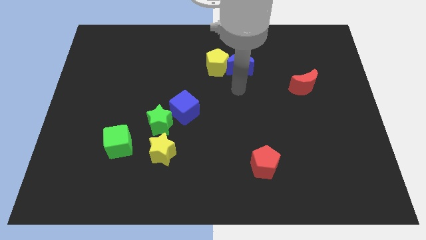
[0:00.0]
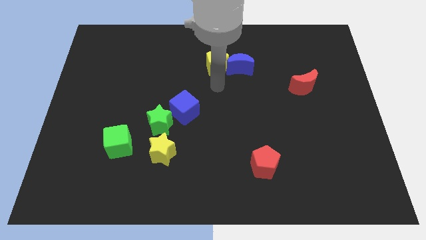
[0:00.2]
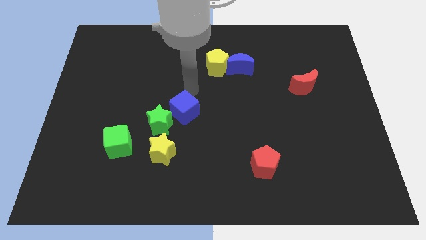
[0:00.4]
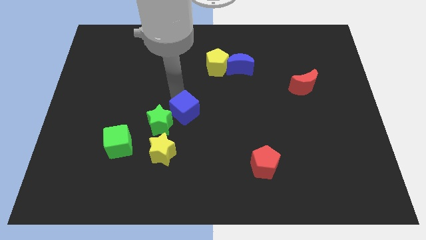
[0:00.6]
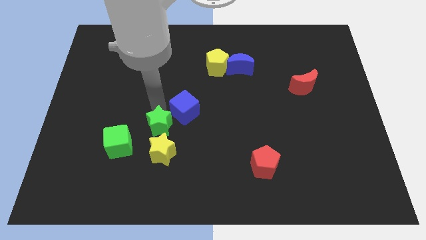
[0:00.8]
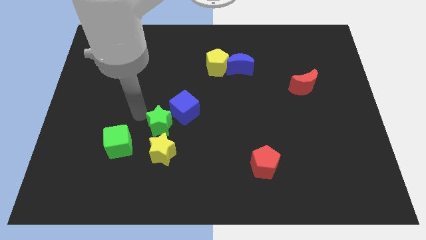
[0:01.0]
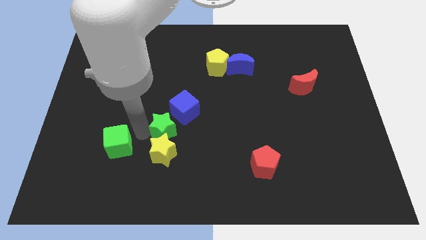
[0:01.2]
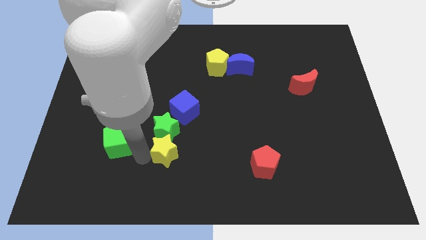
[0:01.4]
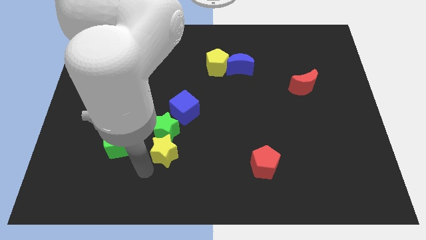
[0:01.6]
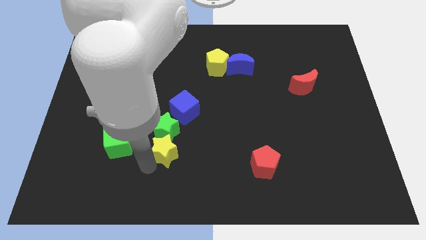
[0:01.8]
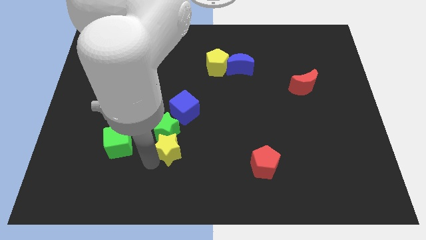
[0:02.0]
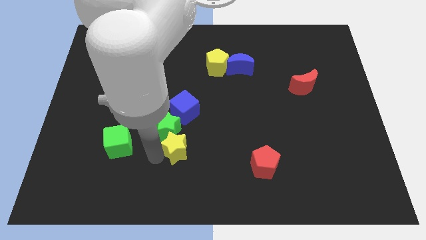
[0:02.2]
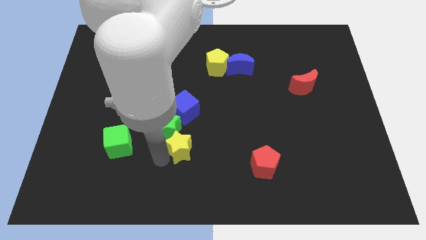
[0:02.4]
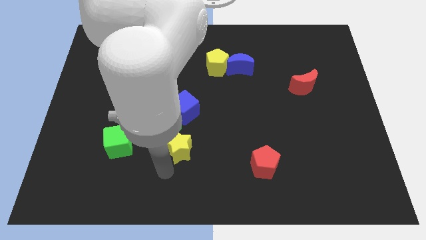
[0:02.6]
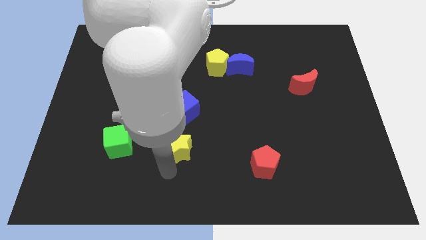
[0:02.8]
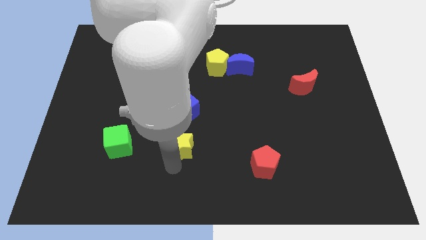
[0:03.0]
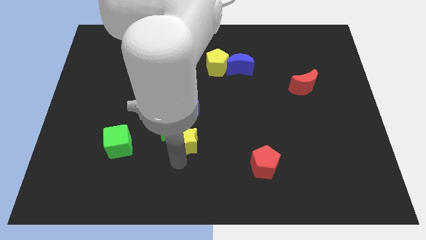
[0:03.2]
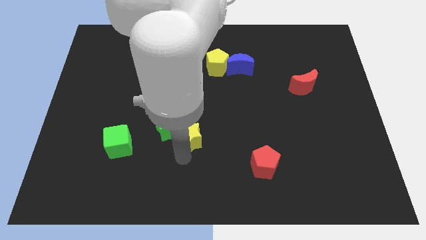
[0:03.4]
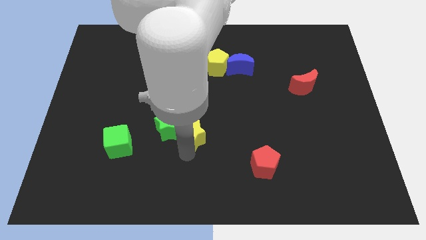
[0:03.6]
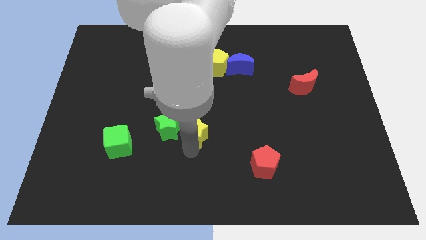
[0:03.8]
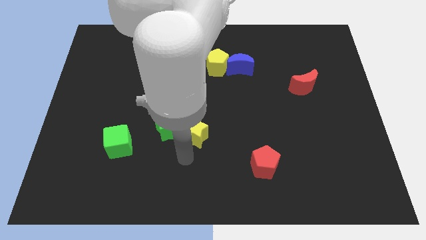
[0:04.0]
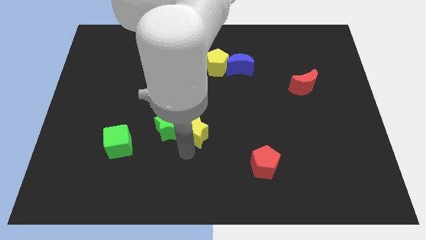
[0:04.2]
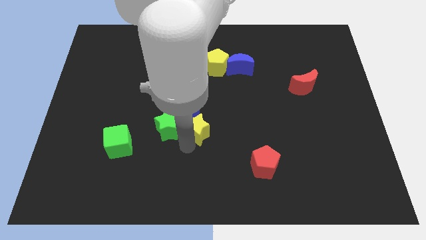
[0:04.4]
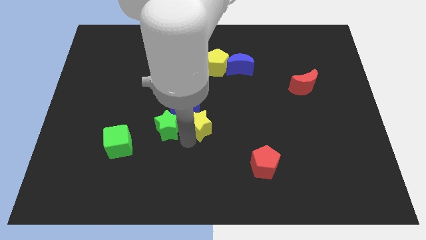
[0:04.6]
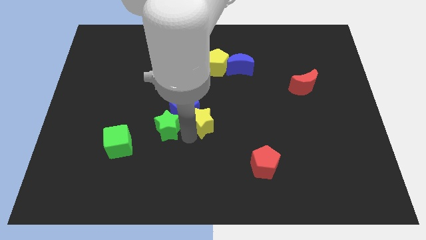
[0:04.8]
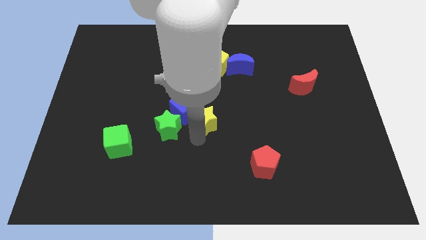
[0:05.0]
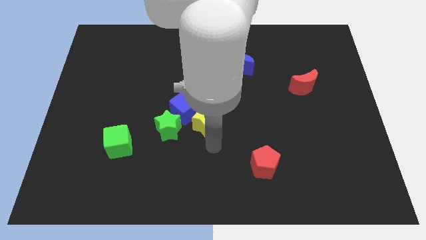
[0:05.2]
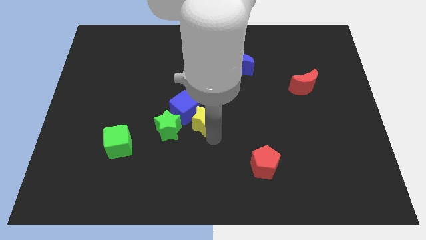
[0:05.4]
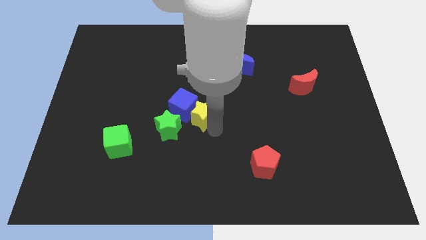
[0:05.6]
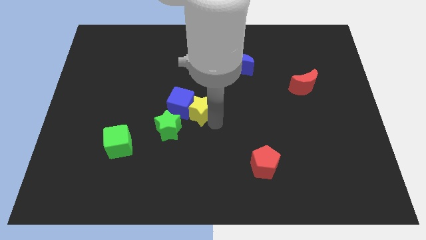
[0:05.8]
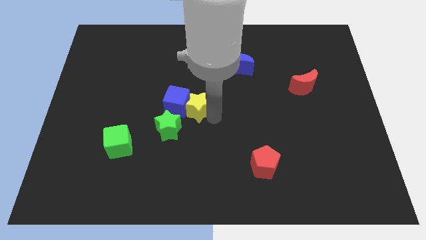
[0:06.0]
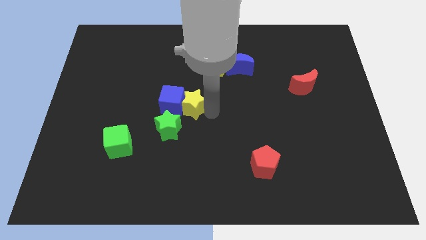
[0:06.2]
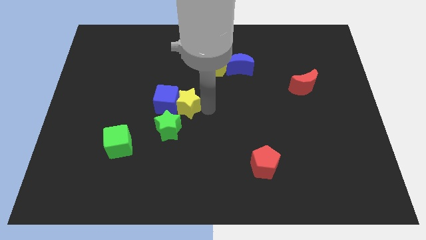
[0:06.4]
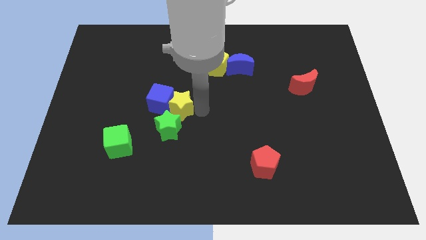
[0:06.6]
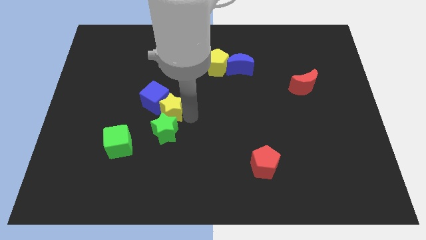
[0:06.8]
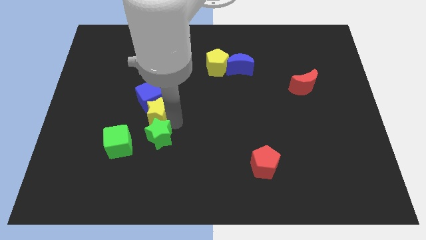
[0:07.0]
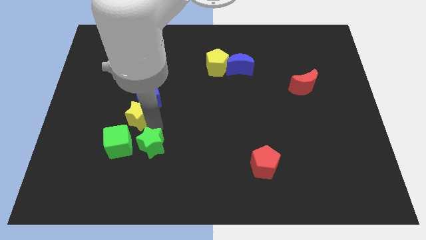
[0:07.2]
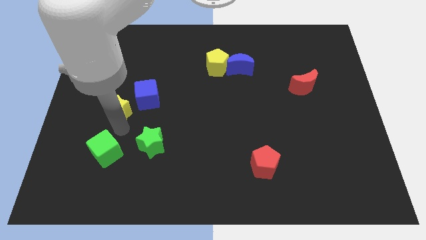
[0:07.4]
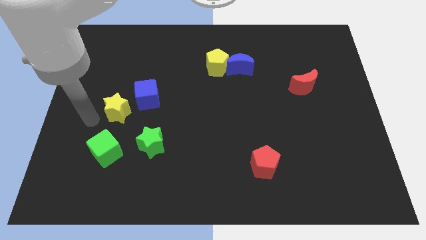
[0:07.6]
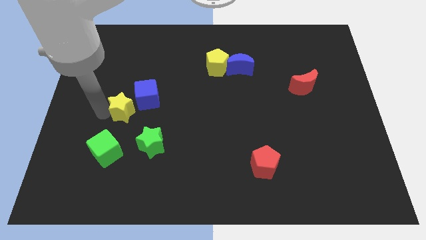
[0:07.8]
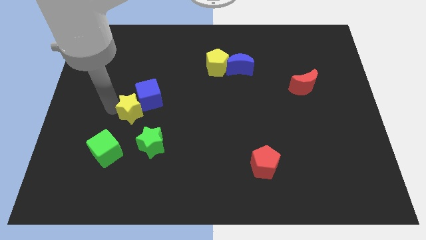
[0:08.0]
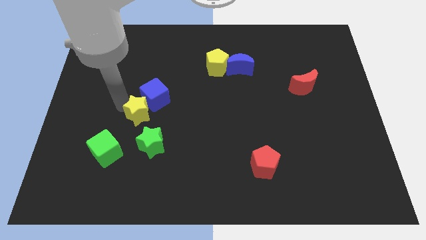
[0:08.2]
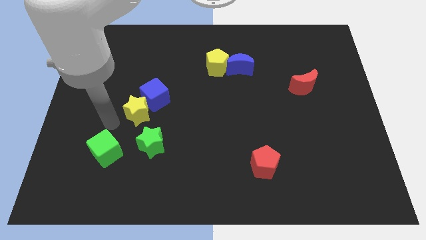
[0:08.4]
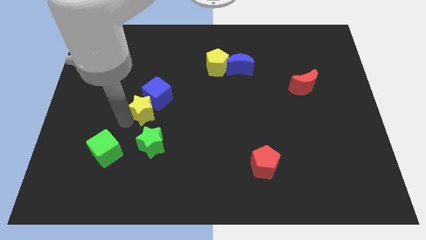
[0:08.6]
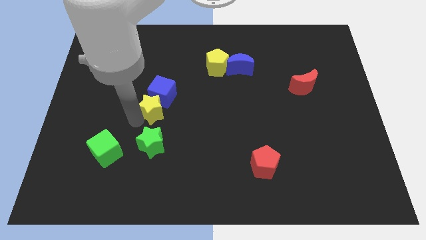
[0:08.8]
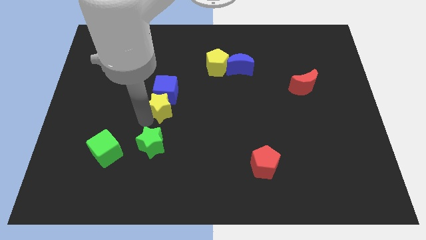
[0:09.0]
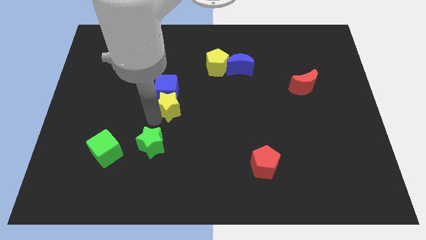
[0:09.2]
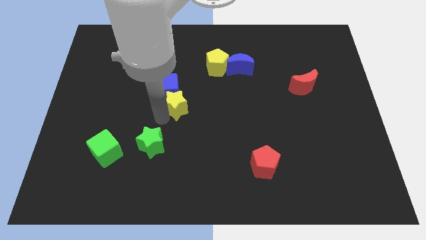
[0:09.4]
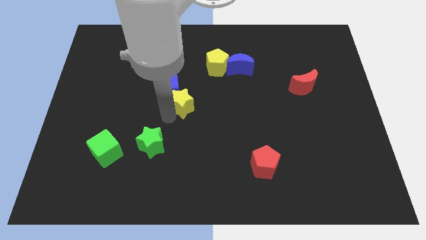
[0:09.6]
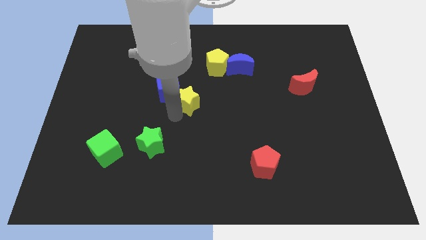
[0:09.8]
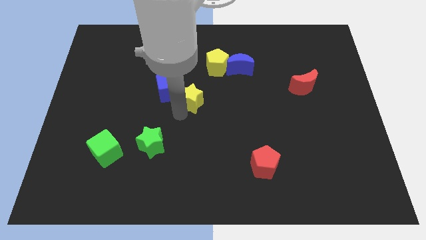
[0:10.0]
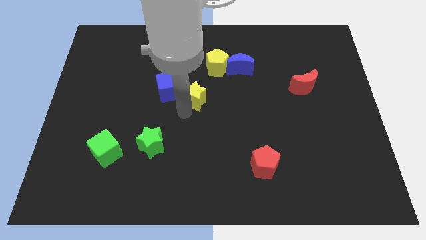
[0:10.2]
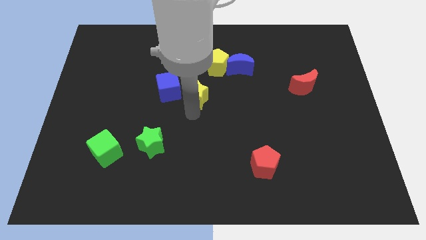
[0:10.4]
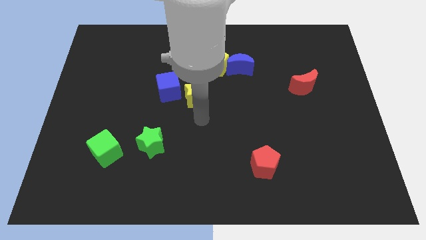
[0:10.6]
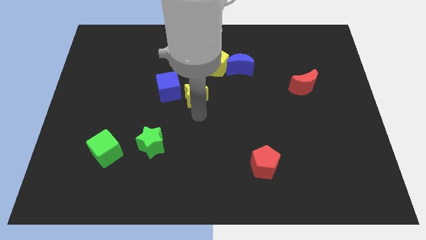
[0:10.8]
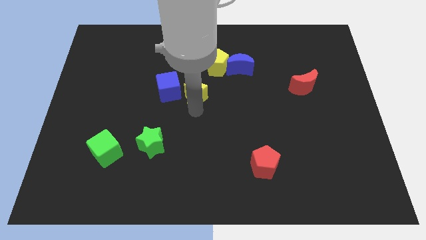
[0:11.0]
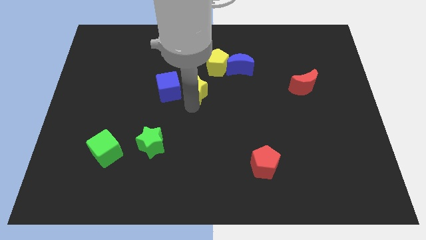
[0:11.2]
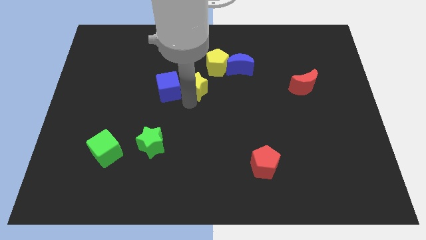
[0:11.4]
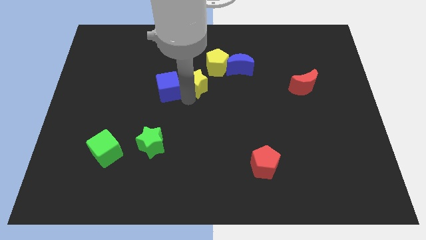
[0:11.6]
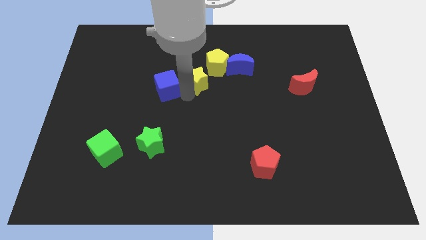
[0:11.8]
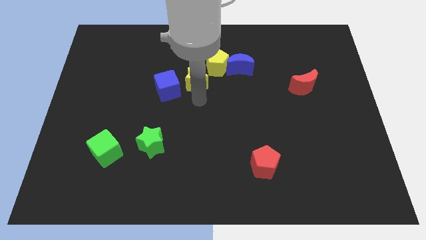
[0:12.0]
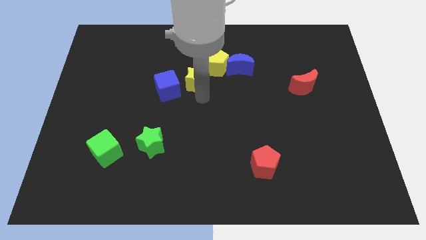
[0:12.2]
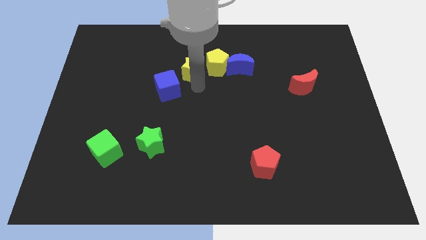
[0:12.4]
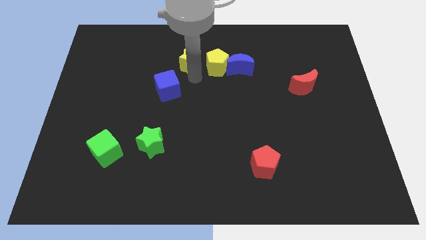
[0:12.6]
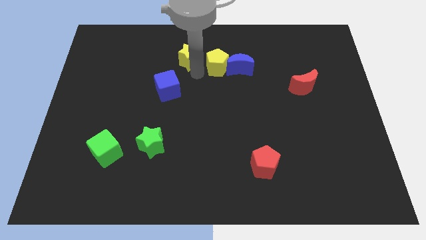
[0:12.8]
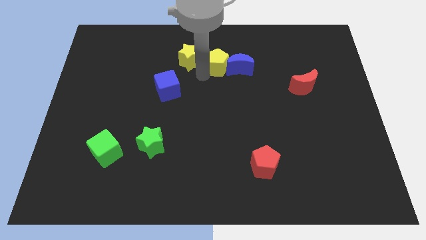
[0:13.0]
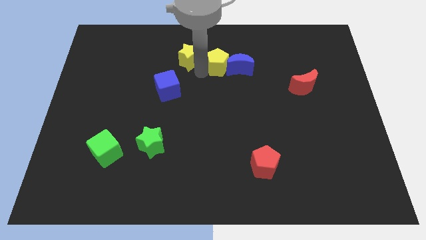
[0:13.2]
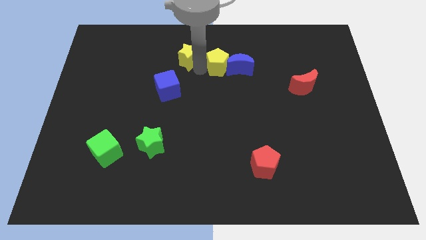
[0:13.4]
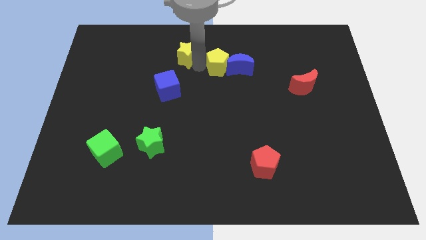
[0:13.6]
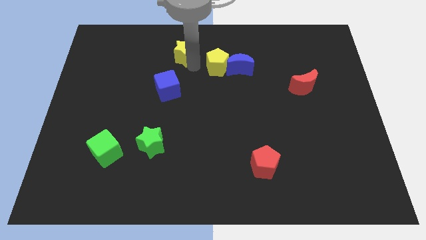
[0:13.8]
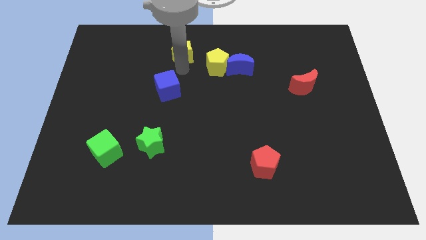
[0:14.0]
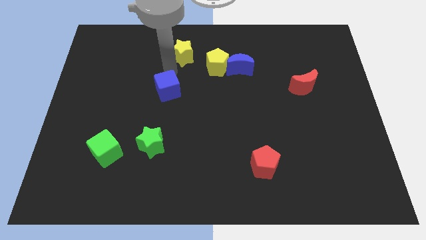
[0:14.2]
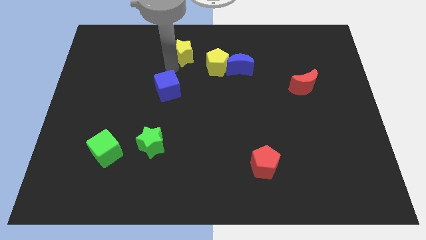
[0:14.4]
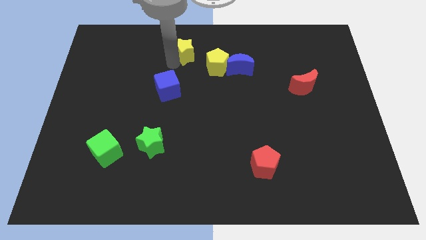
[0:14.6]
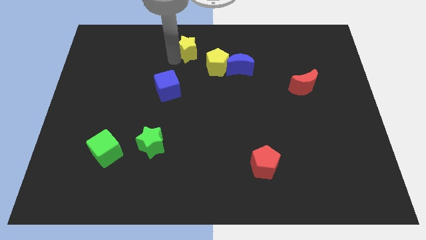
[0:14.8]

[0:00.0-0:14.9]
slide the yellow star to the top
